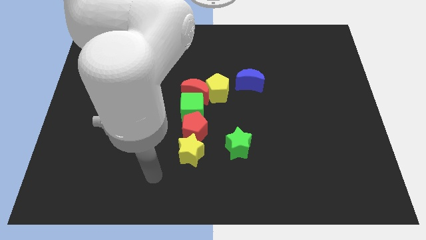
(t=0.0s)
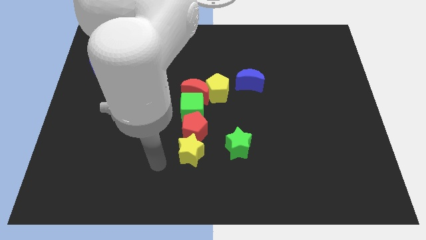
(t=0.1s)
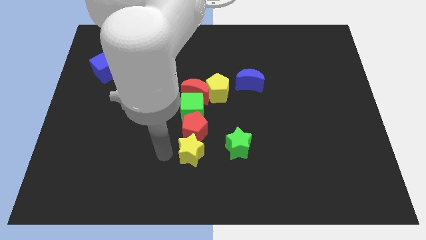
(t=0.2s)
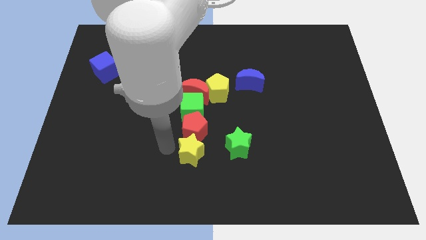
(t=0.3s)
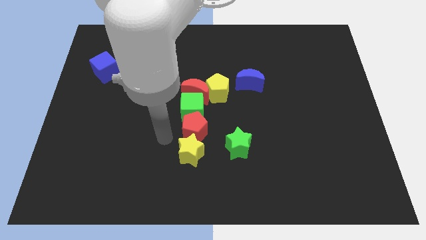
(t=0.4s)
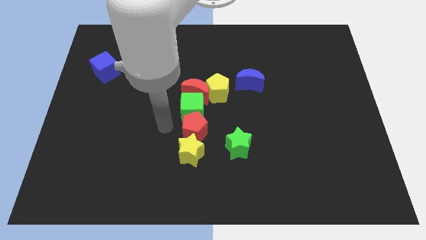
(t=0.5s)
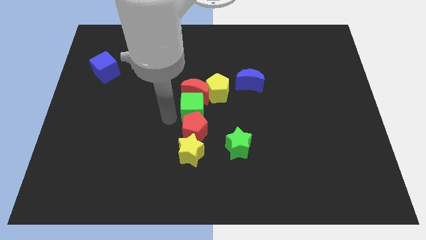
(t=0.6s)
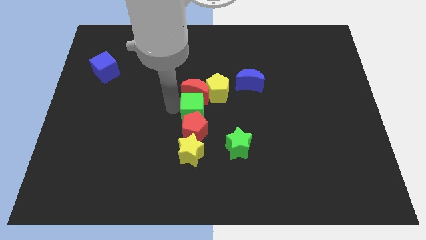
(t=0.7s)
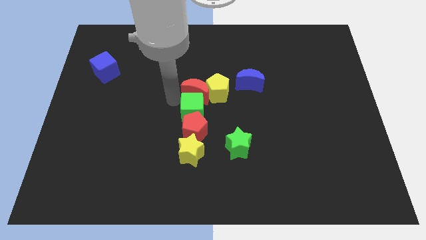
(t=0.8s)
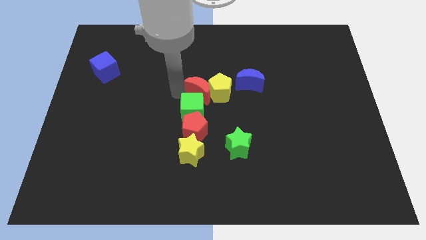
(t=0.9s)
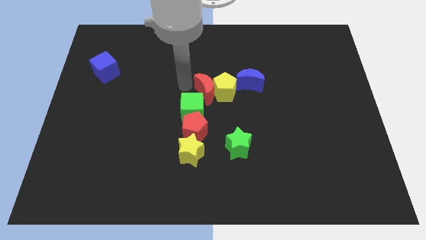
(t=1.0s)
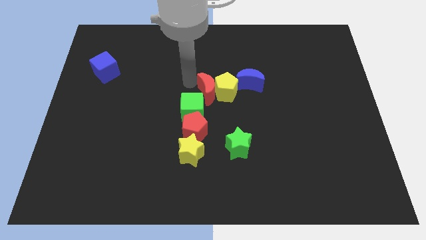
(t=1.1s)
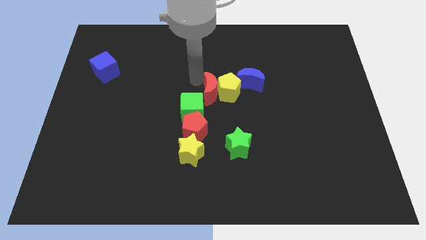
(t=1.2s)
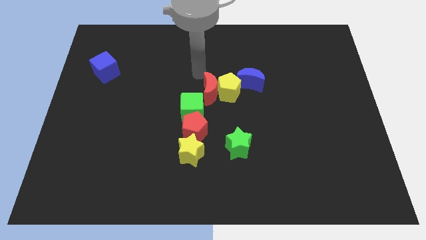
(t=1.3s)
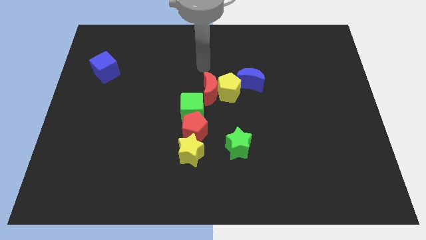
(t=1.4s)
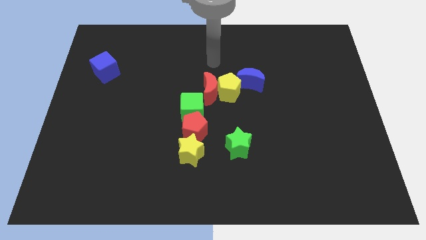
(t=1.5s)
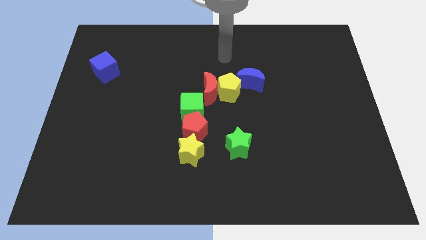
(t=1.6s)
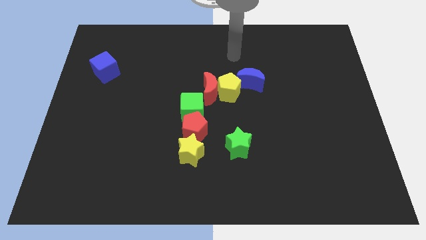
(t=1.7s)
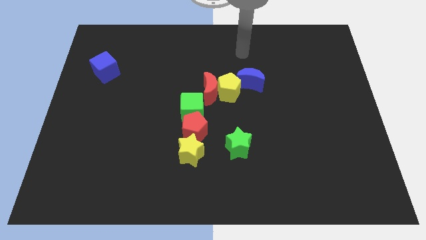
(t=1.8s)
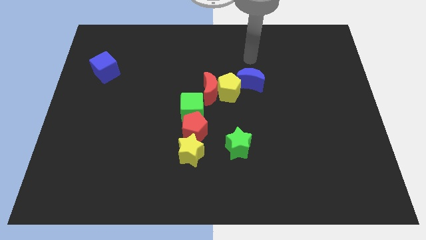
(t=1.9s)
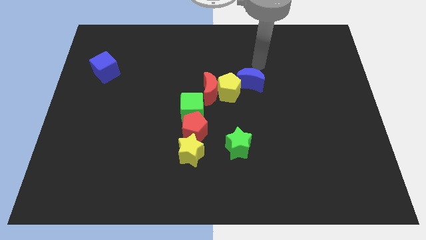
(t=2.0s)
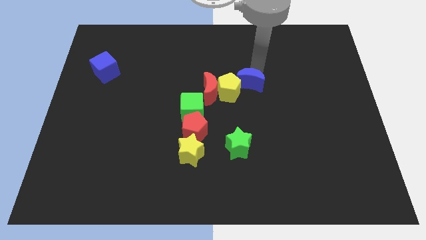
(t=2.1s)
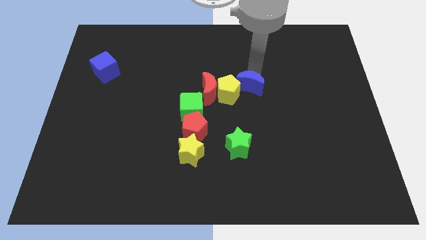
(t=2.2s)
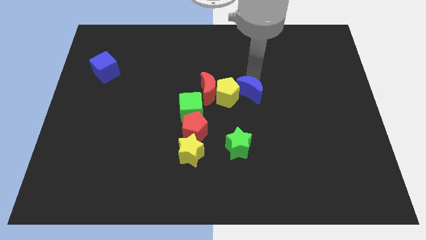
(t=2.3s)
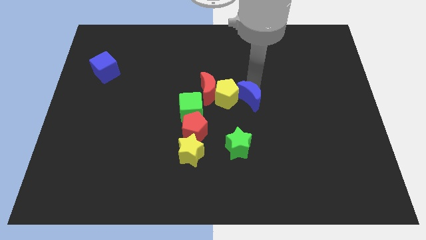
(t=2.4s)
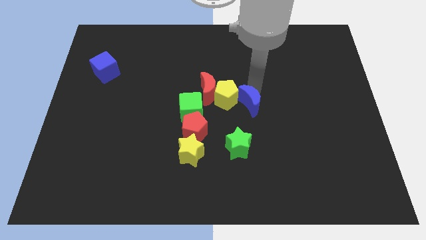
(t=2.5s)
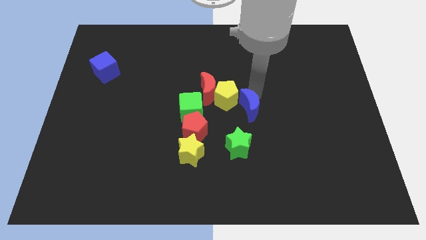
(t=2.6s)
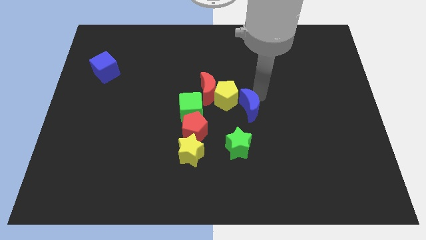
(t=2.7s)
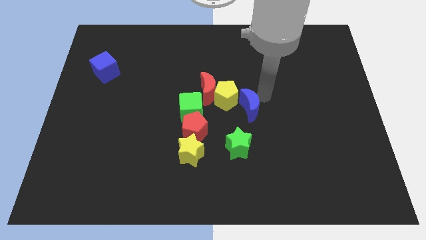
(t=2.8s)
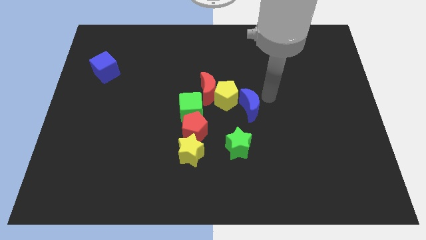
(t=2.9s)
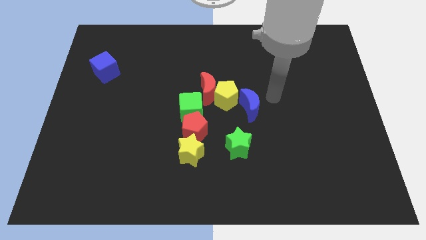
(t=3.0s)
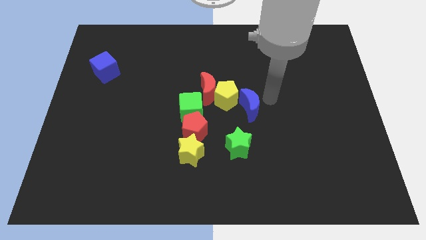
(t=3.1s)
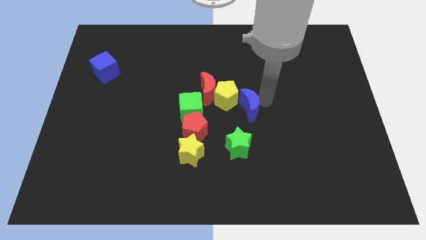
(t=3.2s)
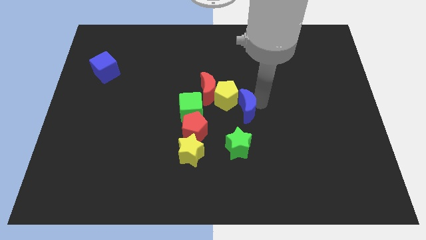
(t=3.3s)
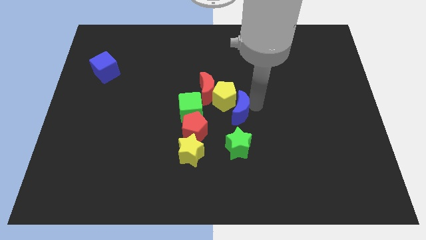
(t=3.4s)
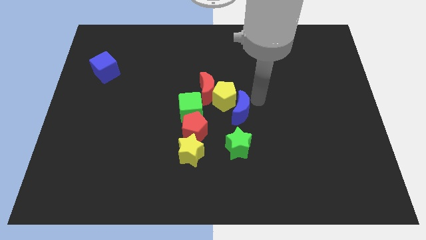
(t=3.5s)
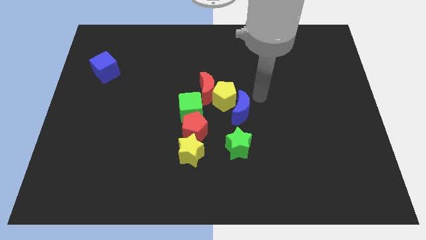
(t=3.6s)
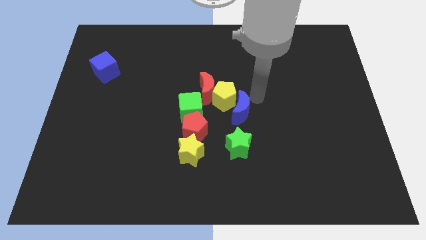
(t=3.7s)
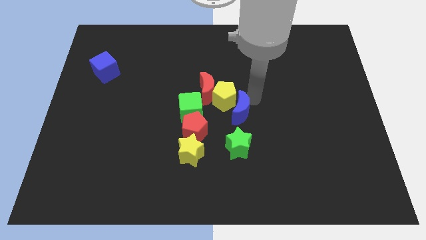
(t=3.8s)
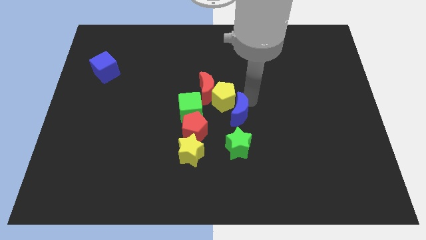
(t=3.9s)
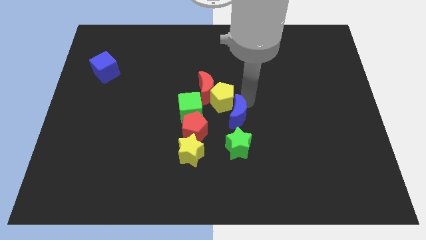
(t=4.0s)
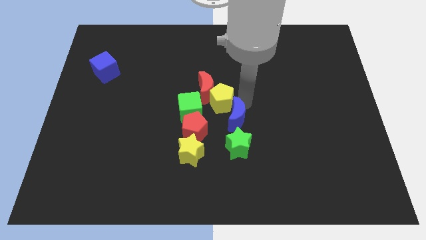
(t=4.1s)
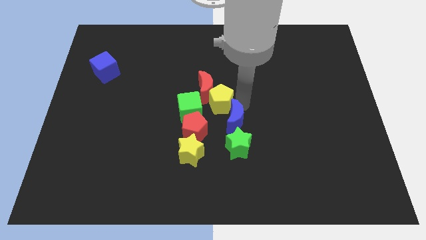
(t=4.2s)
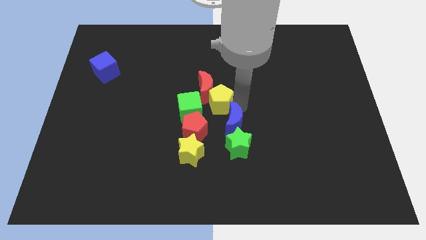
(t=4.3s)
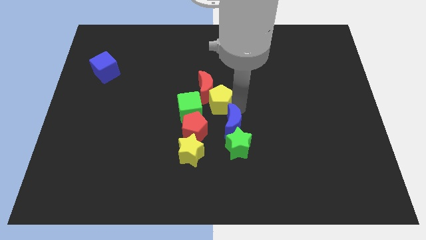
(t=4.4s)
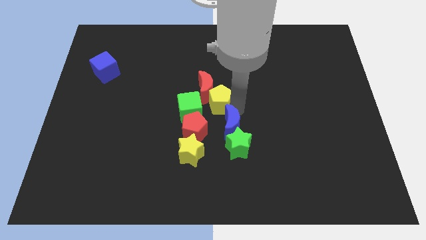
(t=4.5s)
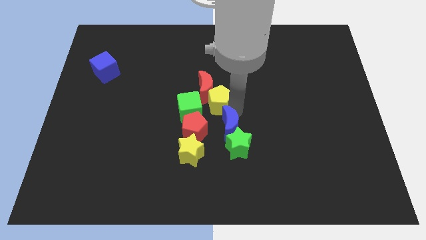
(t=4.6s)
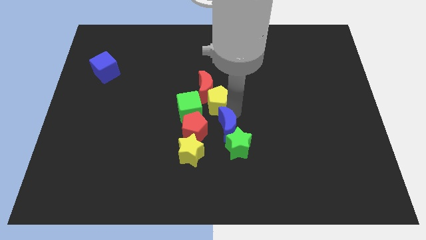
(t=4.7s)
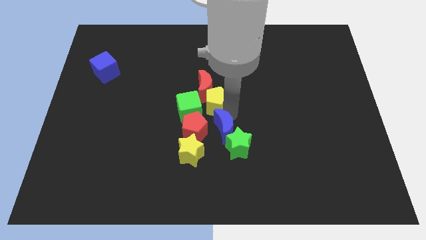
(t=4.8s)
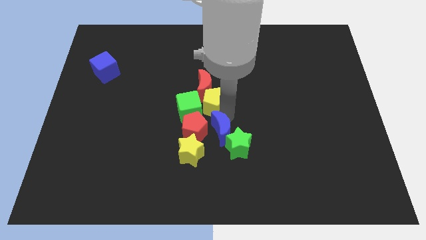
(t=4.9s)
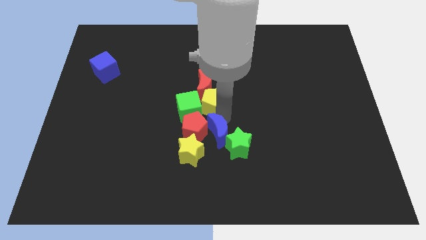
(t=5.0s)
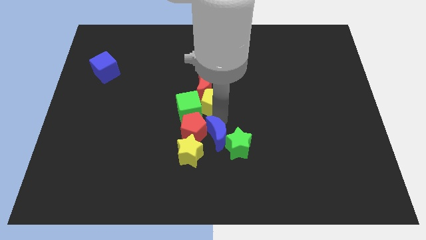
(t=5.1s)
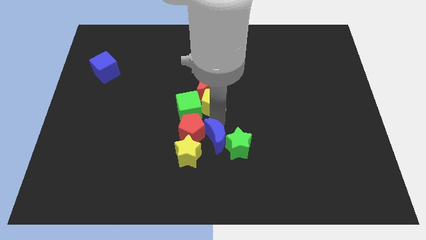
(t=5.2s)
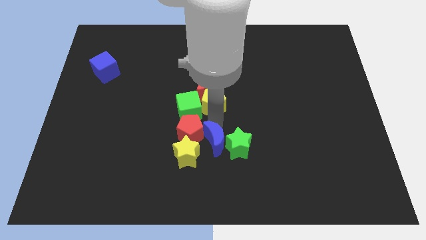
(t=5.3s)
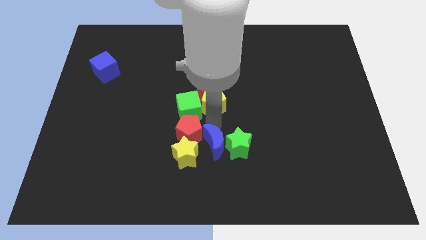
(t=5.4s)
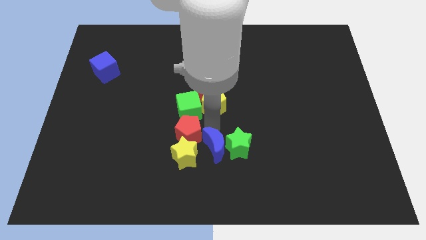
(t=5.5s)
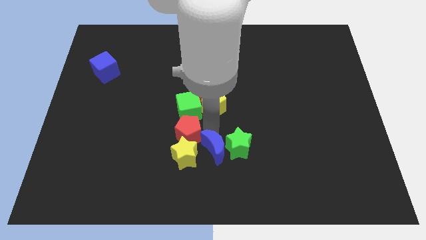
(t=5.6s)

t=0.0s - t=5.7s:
put the blue moon to the yellow star

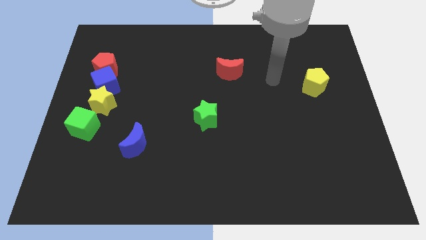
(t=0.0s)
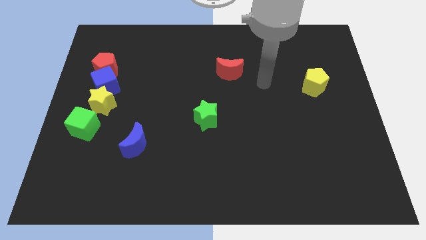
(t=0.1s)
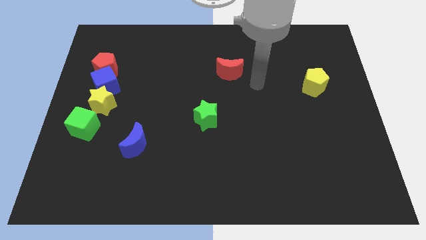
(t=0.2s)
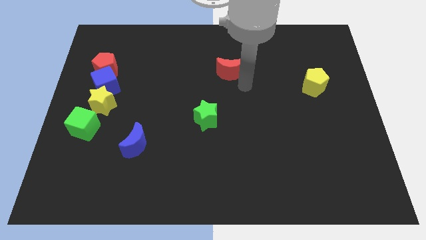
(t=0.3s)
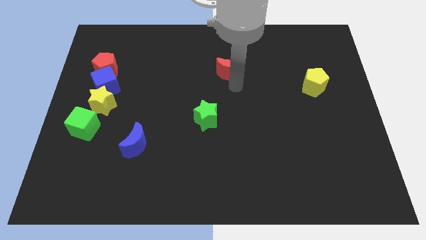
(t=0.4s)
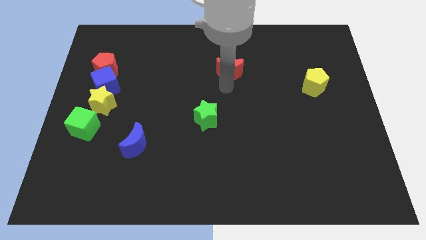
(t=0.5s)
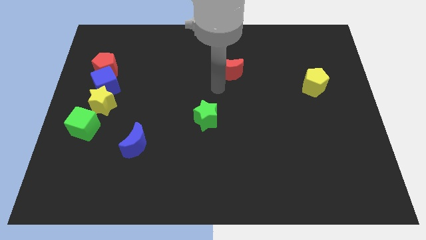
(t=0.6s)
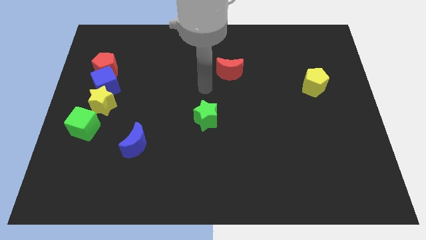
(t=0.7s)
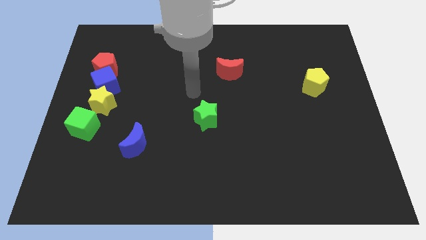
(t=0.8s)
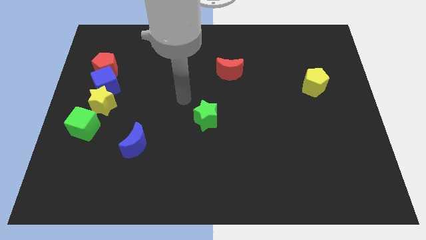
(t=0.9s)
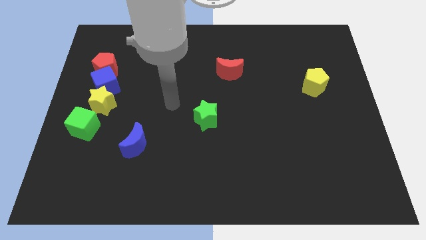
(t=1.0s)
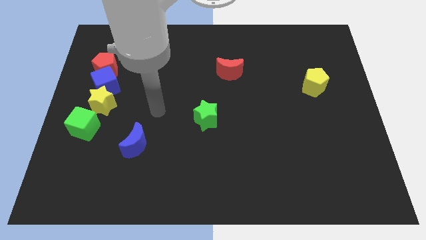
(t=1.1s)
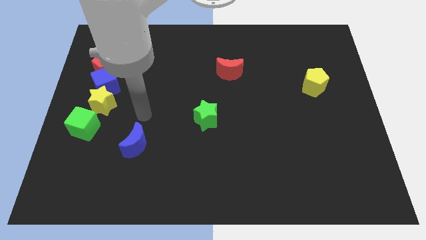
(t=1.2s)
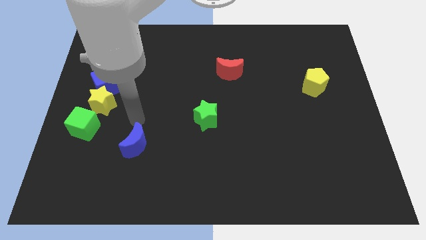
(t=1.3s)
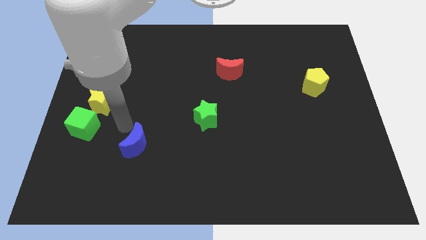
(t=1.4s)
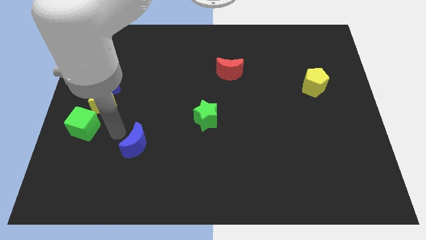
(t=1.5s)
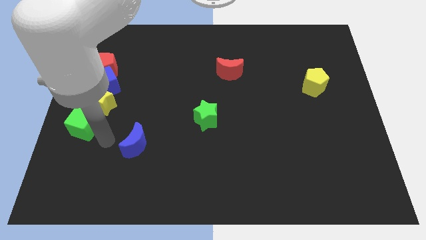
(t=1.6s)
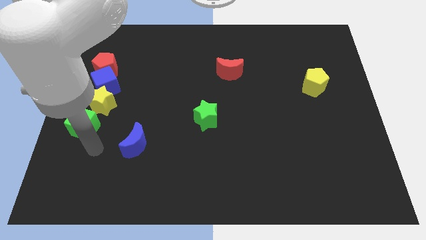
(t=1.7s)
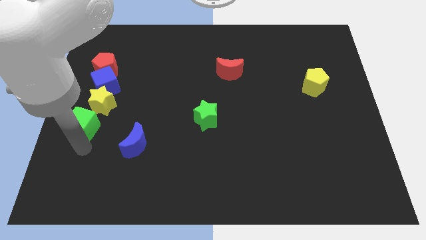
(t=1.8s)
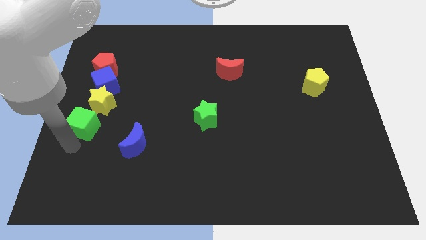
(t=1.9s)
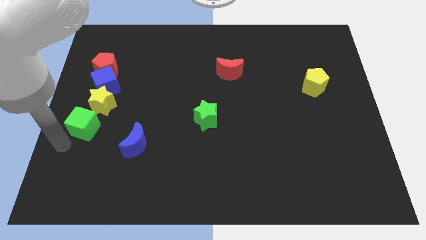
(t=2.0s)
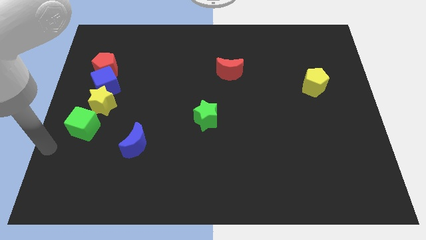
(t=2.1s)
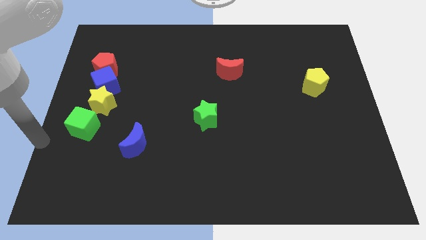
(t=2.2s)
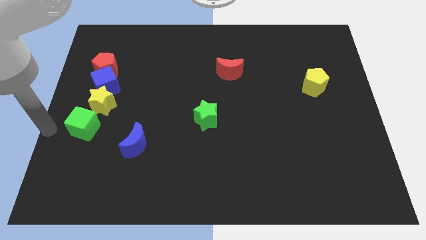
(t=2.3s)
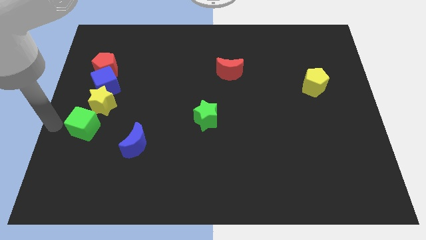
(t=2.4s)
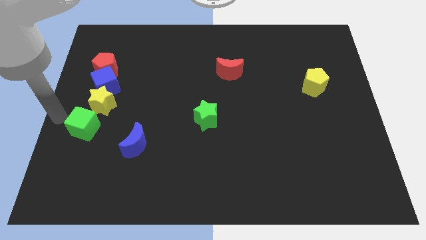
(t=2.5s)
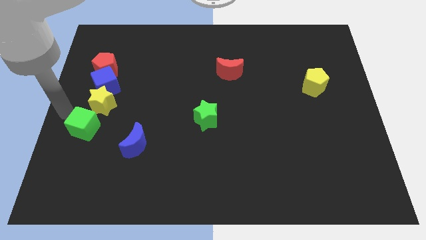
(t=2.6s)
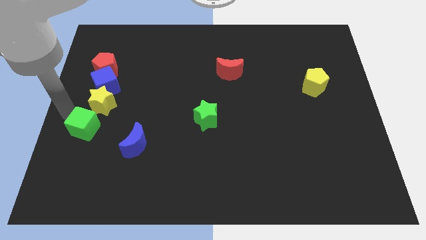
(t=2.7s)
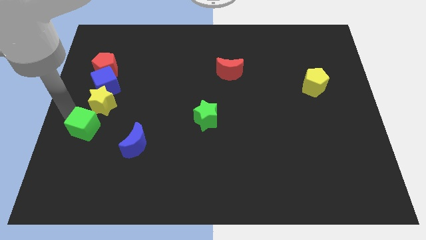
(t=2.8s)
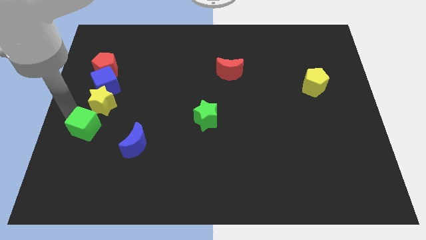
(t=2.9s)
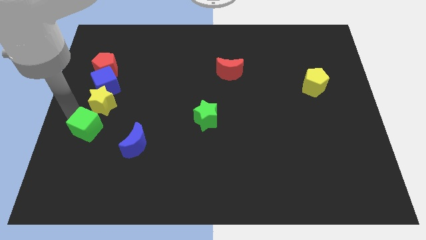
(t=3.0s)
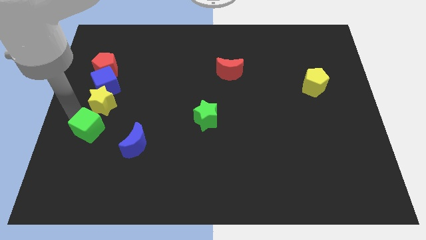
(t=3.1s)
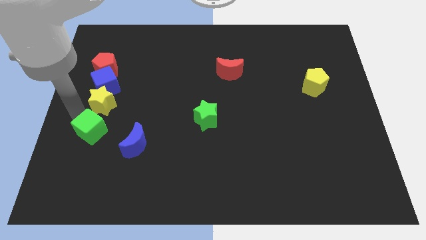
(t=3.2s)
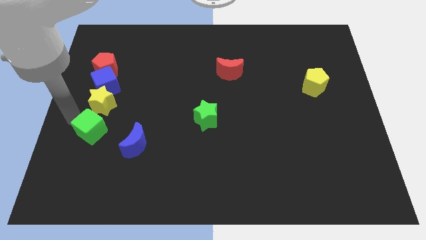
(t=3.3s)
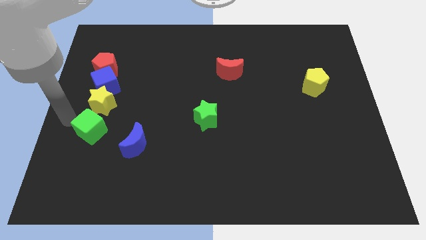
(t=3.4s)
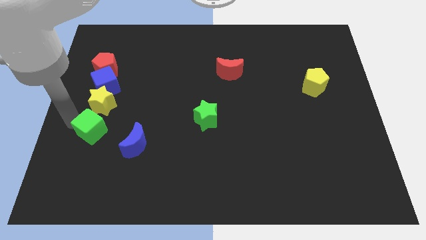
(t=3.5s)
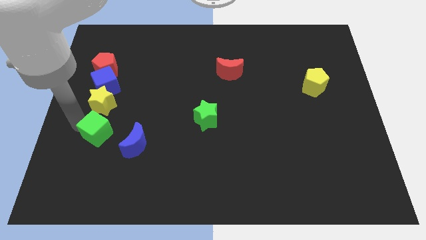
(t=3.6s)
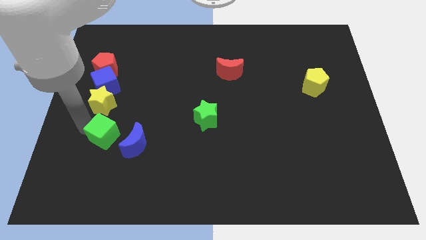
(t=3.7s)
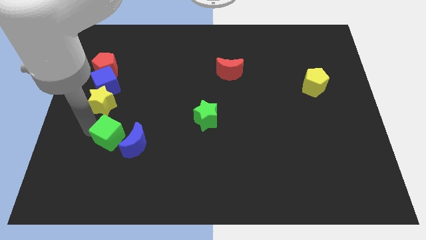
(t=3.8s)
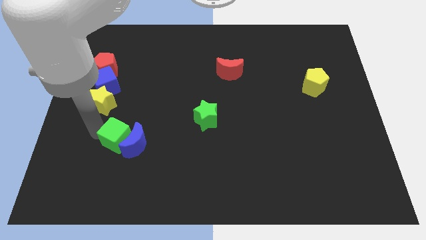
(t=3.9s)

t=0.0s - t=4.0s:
move the green cube close to the blue moon
